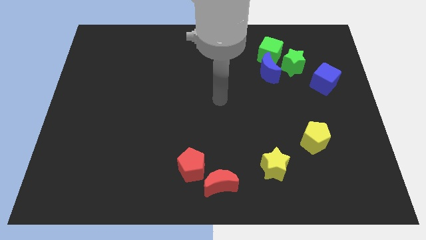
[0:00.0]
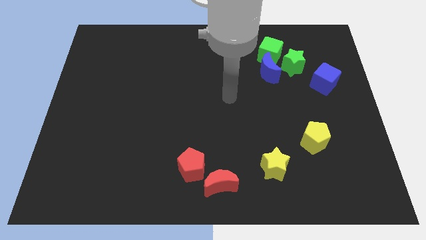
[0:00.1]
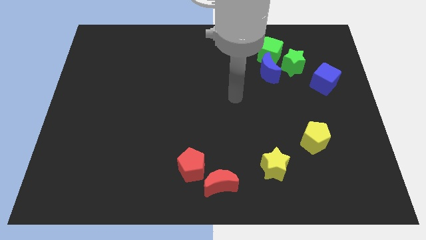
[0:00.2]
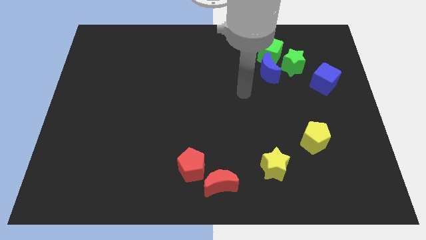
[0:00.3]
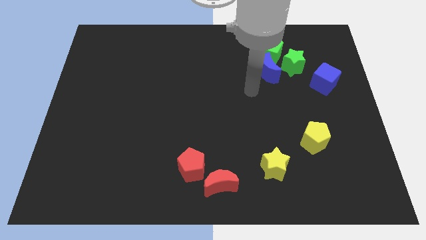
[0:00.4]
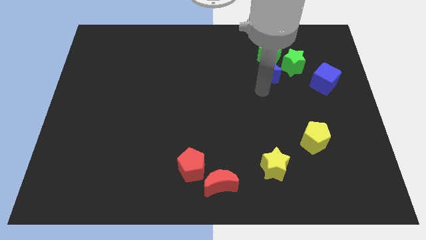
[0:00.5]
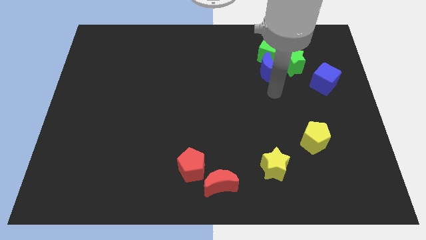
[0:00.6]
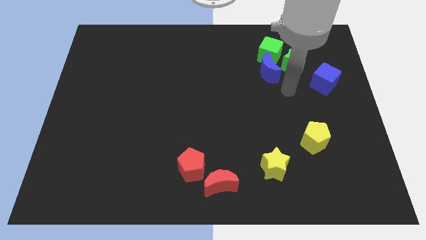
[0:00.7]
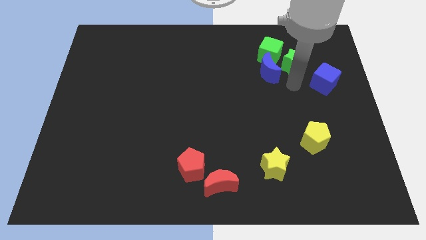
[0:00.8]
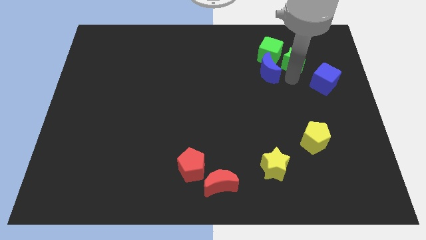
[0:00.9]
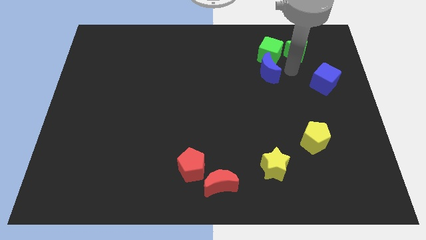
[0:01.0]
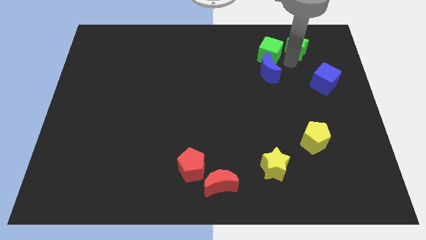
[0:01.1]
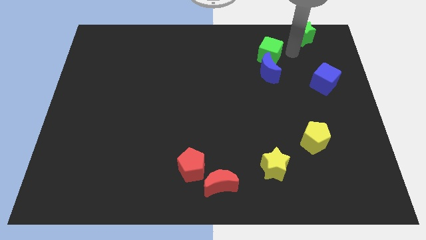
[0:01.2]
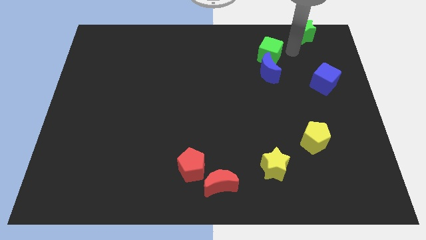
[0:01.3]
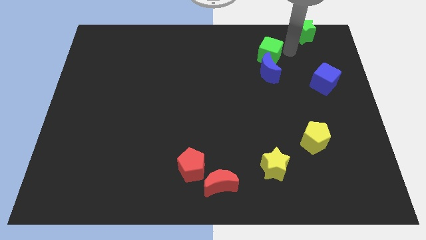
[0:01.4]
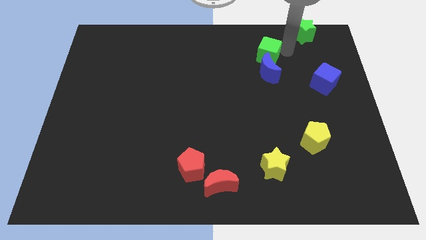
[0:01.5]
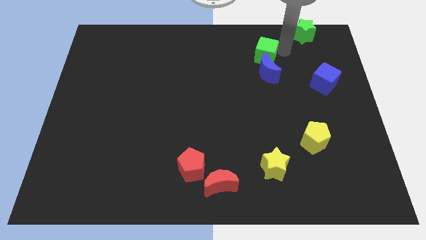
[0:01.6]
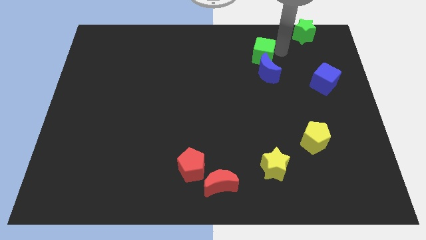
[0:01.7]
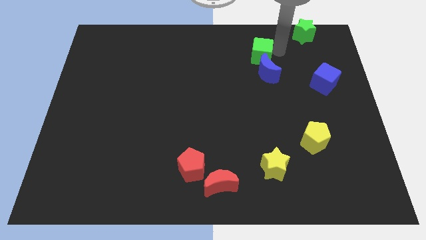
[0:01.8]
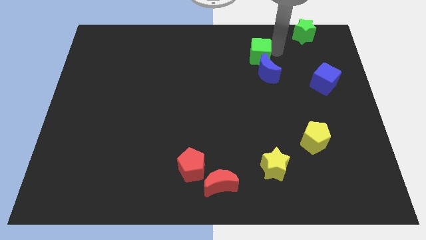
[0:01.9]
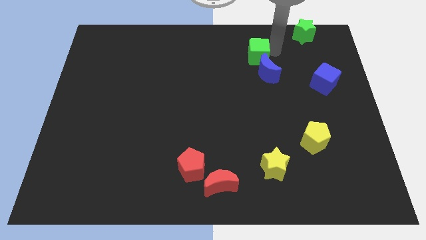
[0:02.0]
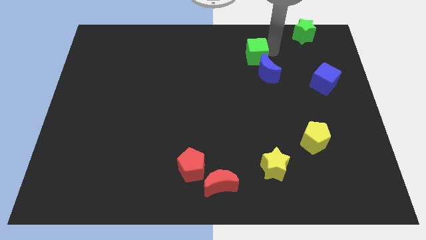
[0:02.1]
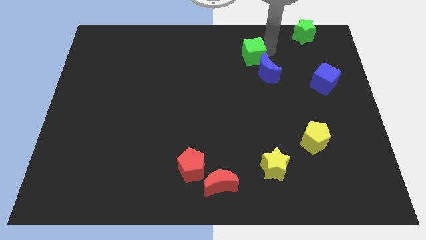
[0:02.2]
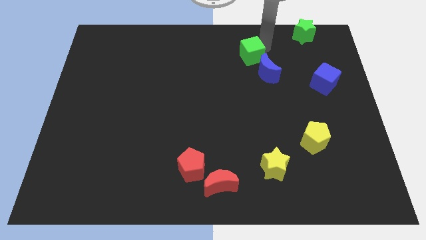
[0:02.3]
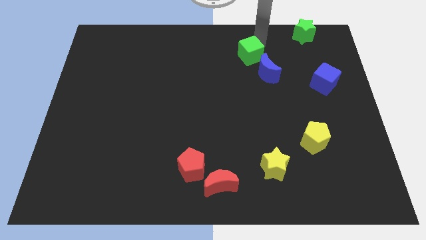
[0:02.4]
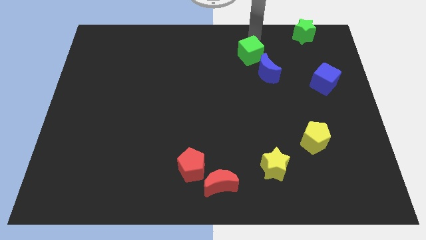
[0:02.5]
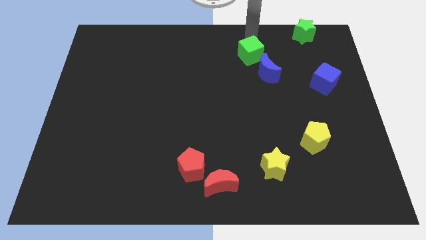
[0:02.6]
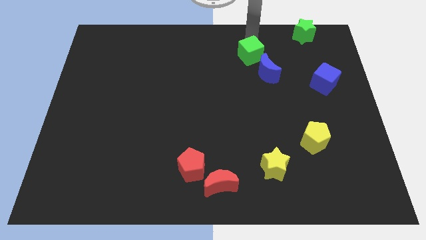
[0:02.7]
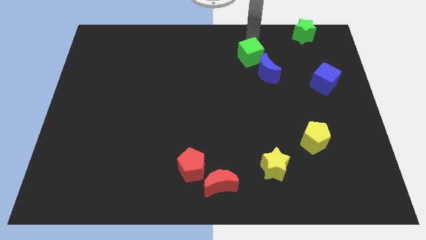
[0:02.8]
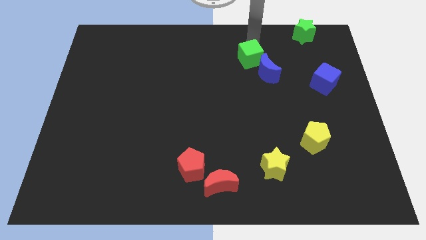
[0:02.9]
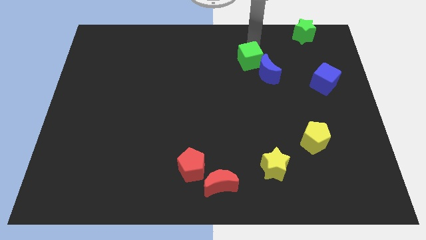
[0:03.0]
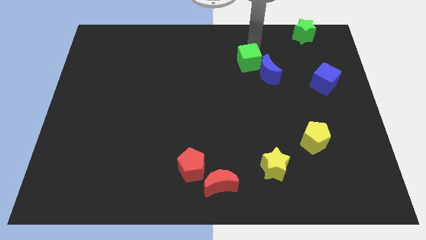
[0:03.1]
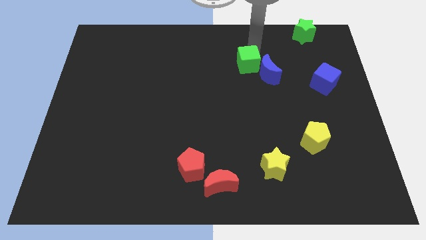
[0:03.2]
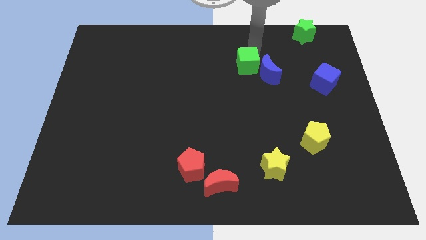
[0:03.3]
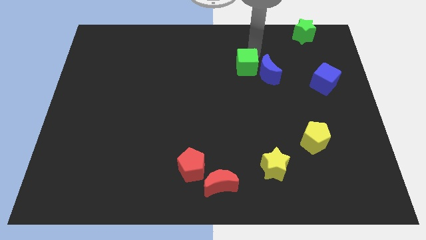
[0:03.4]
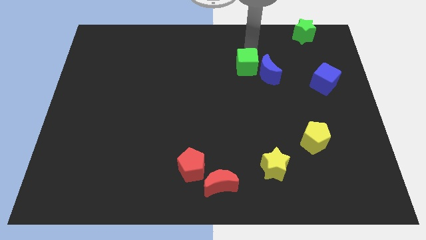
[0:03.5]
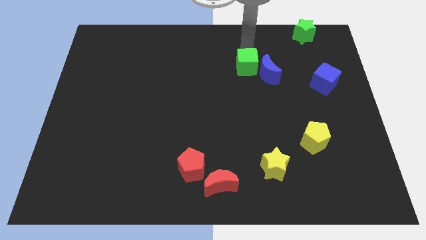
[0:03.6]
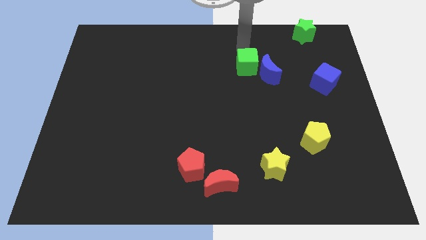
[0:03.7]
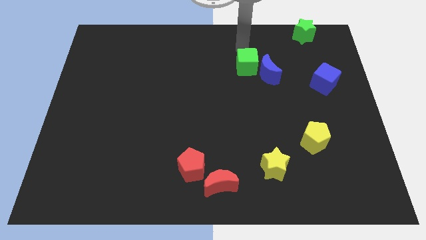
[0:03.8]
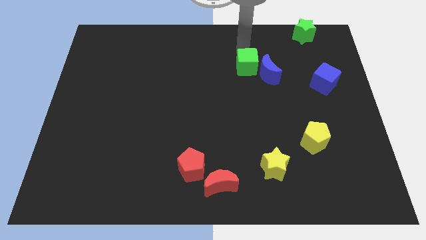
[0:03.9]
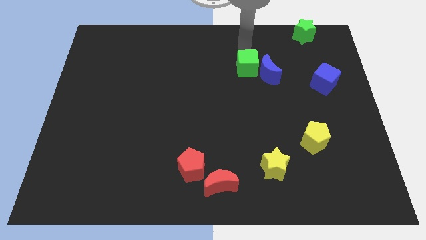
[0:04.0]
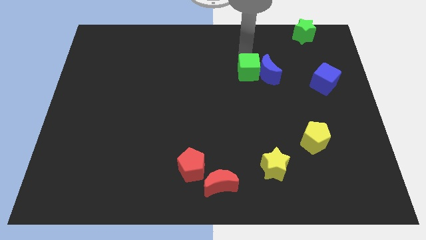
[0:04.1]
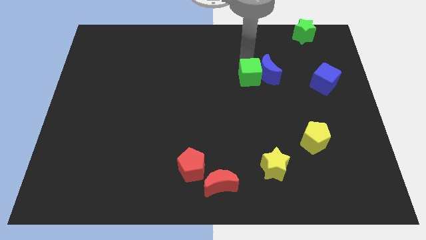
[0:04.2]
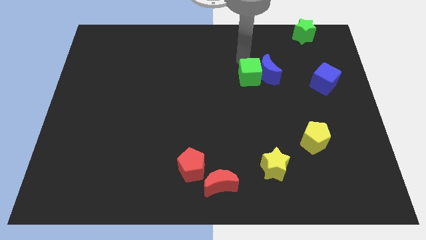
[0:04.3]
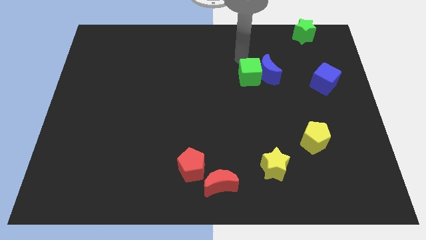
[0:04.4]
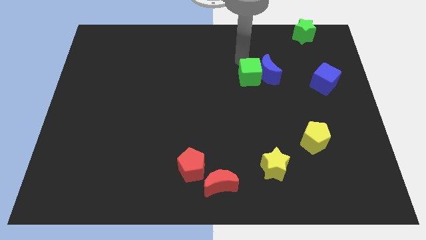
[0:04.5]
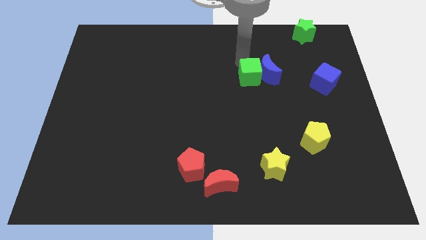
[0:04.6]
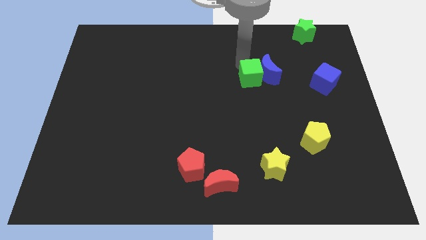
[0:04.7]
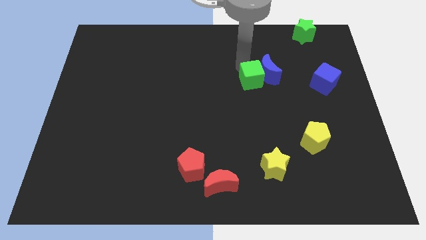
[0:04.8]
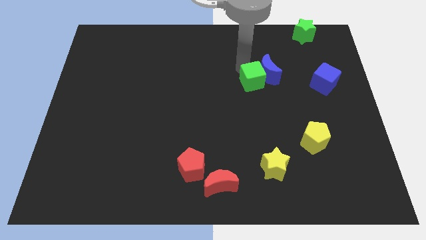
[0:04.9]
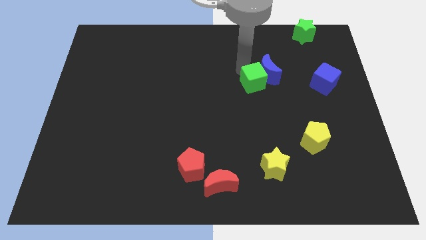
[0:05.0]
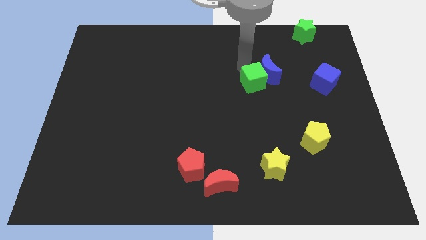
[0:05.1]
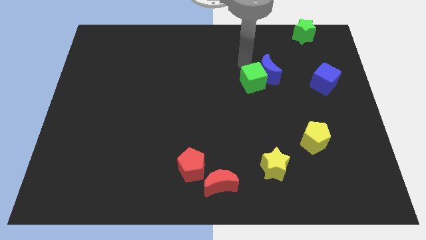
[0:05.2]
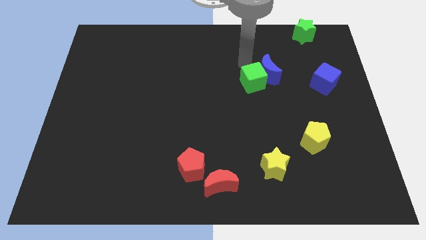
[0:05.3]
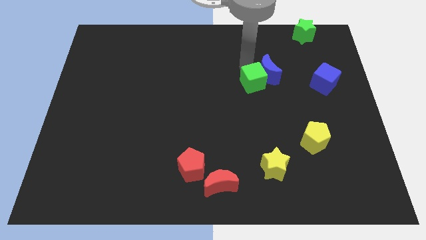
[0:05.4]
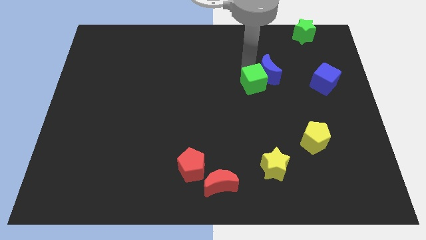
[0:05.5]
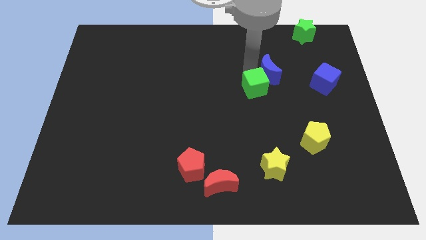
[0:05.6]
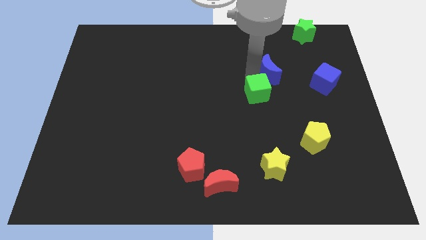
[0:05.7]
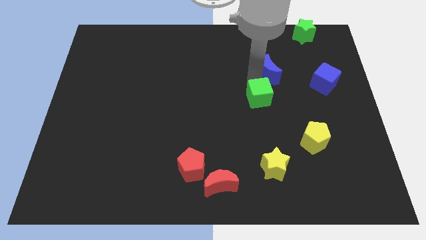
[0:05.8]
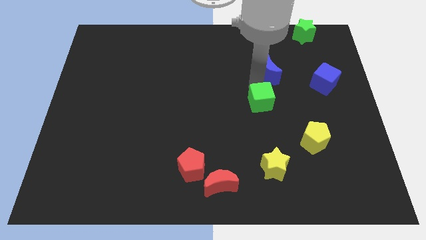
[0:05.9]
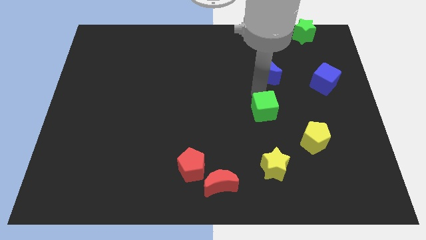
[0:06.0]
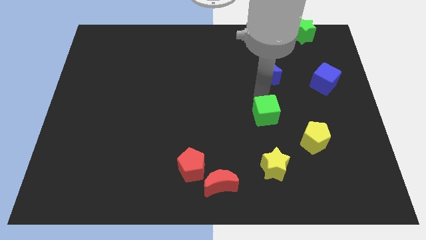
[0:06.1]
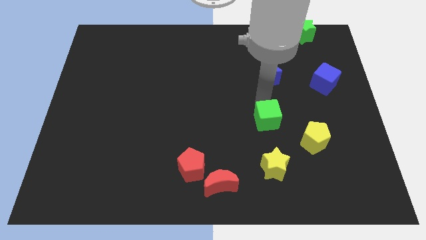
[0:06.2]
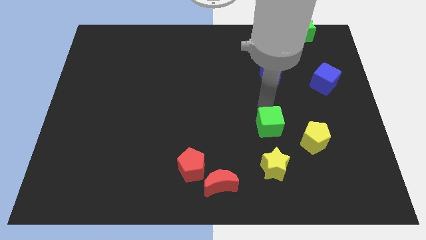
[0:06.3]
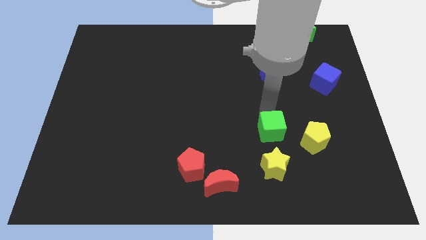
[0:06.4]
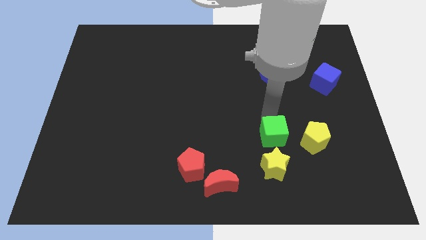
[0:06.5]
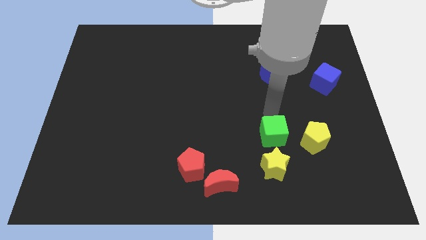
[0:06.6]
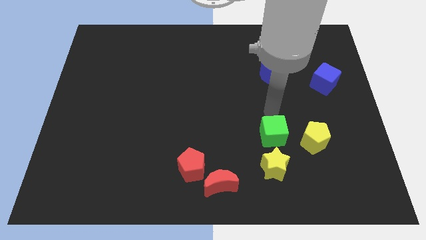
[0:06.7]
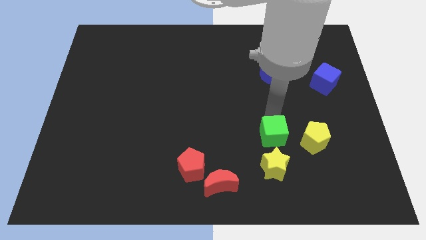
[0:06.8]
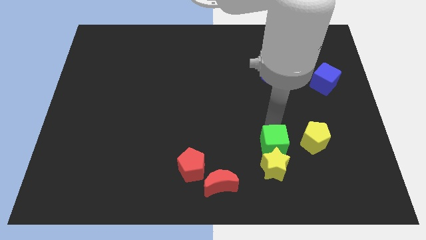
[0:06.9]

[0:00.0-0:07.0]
put the green cube close to the yellow star
